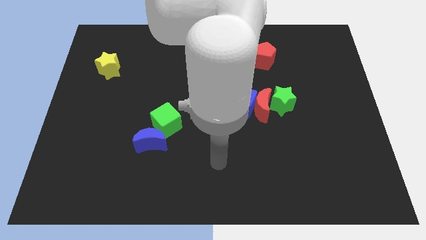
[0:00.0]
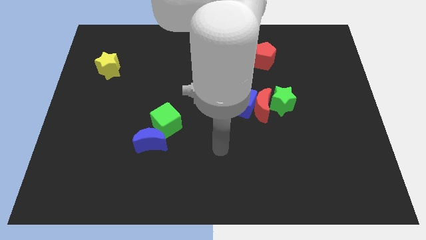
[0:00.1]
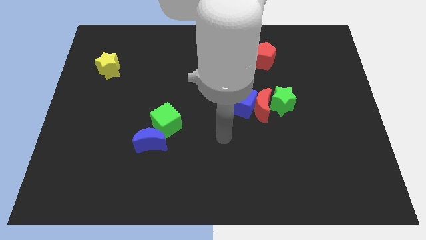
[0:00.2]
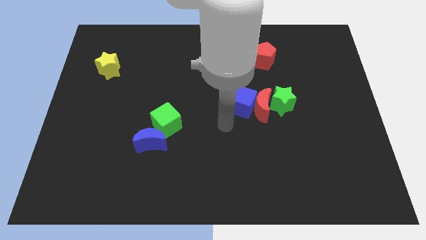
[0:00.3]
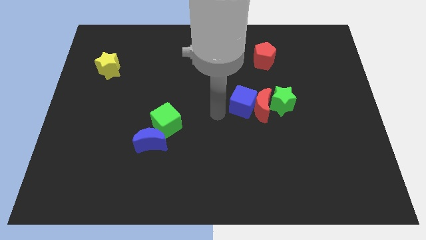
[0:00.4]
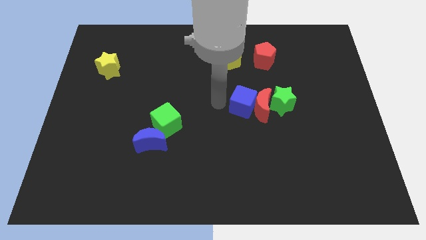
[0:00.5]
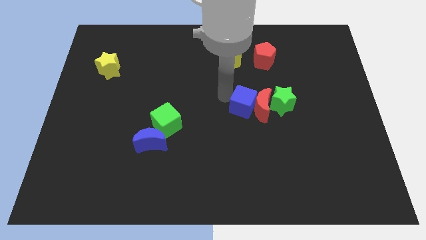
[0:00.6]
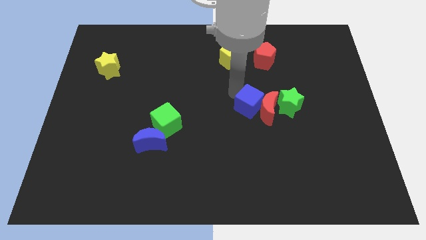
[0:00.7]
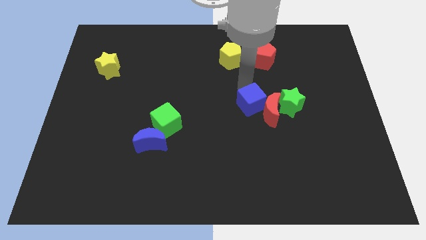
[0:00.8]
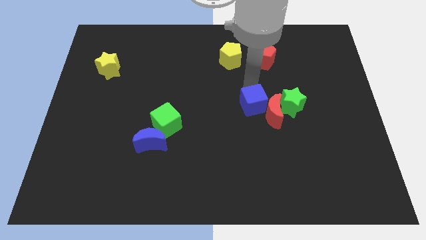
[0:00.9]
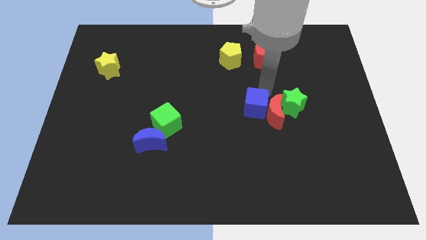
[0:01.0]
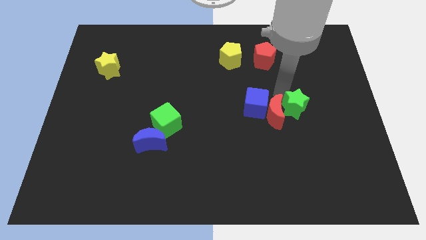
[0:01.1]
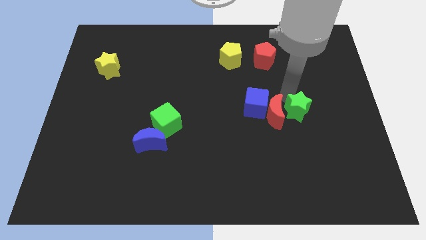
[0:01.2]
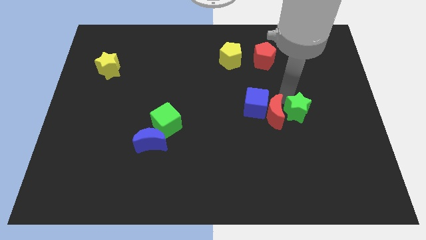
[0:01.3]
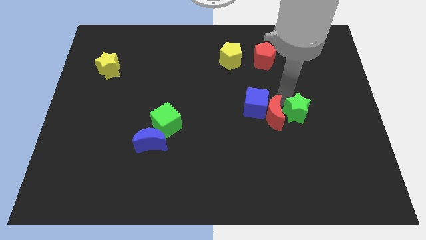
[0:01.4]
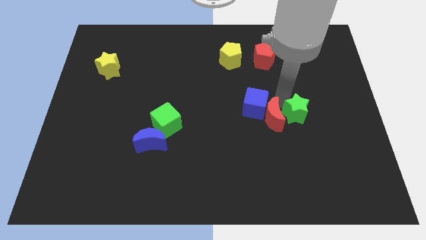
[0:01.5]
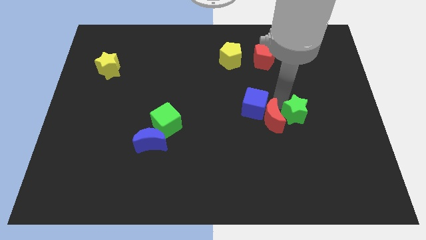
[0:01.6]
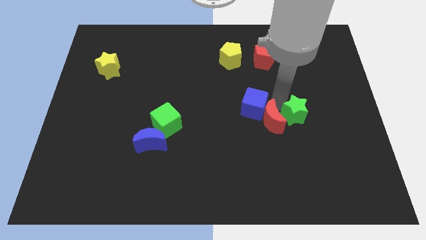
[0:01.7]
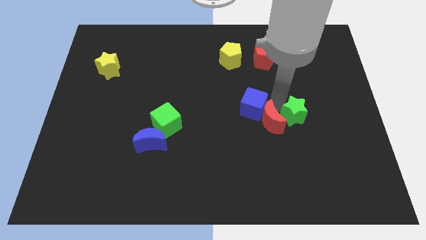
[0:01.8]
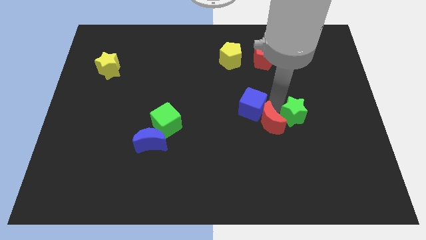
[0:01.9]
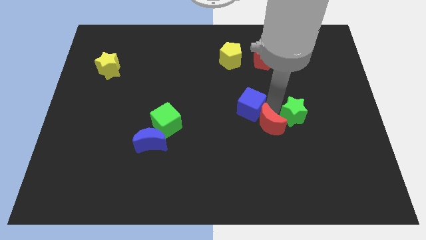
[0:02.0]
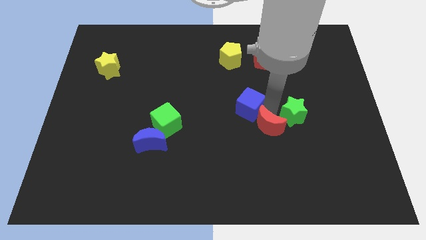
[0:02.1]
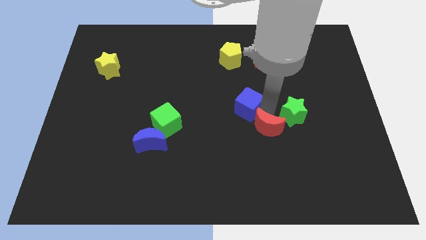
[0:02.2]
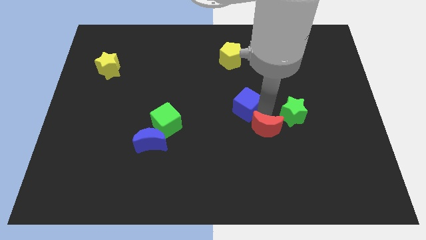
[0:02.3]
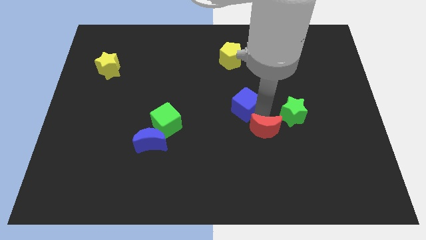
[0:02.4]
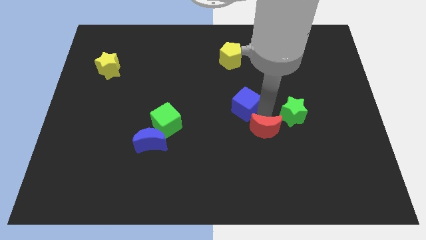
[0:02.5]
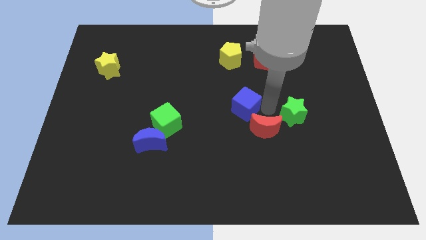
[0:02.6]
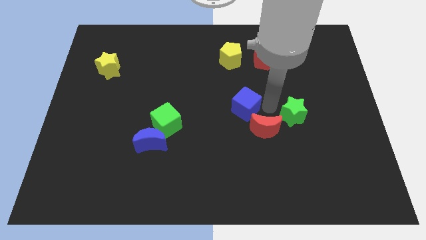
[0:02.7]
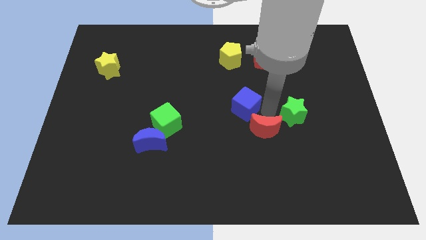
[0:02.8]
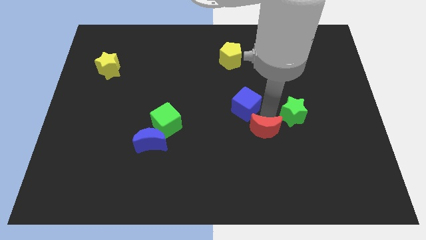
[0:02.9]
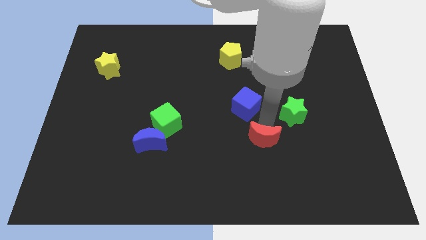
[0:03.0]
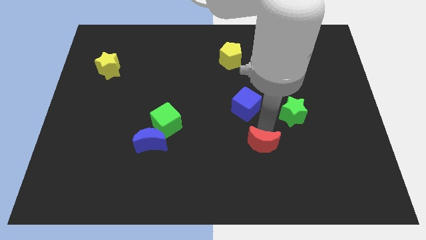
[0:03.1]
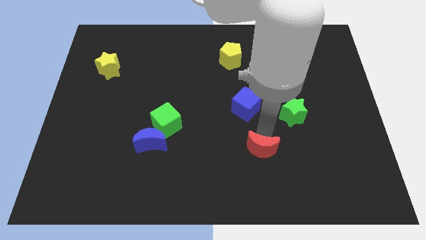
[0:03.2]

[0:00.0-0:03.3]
pull the red moon apart from the blue cube and green star

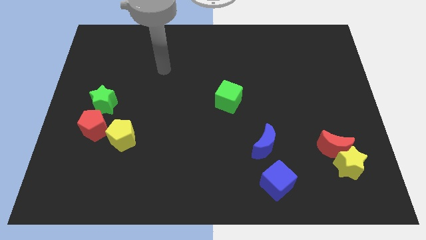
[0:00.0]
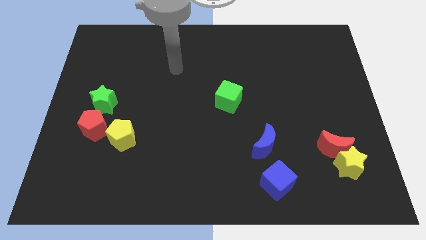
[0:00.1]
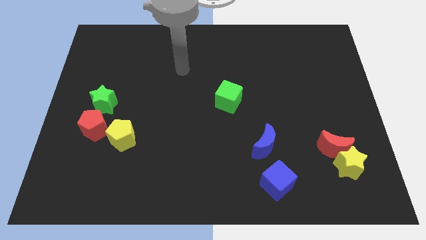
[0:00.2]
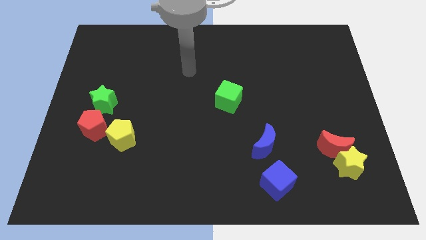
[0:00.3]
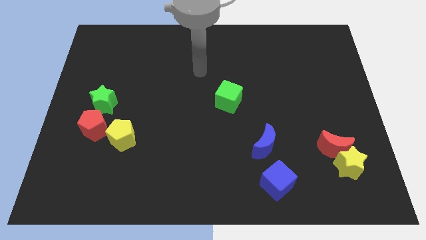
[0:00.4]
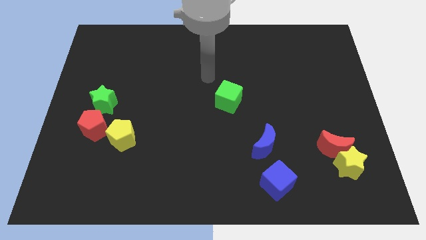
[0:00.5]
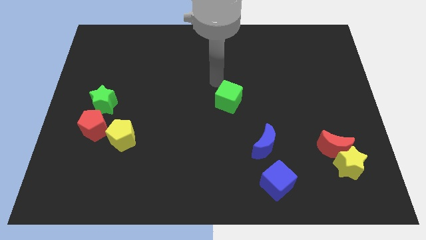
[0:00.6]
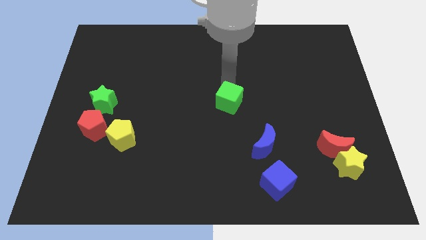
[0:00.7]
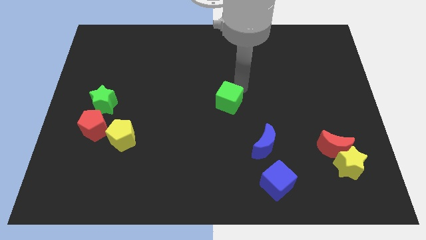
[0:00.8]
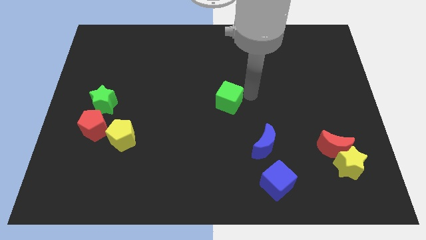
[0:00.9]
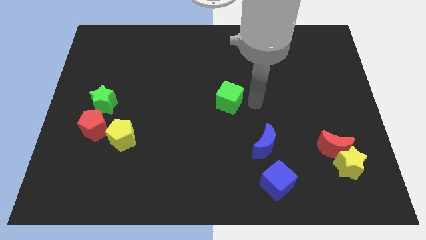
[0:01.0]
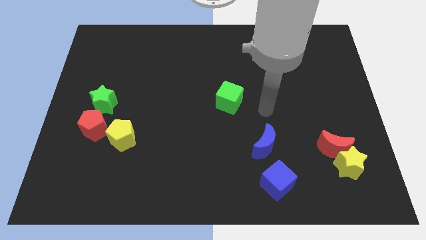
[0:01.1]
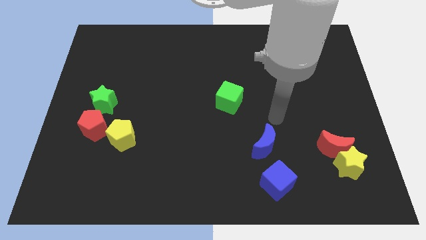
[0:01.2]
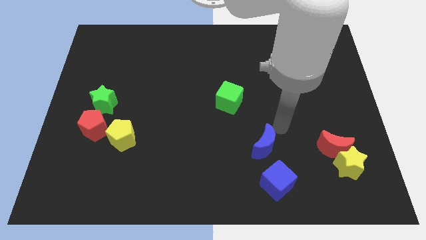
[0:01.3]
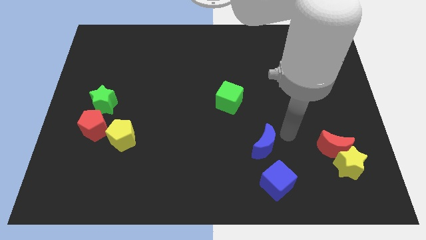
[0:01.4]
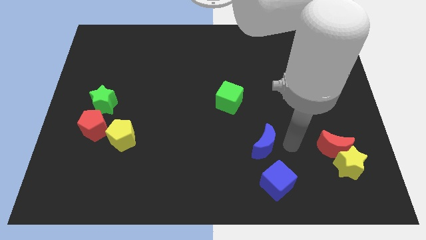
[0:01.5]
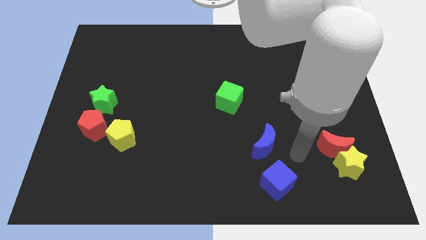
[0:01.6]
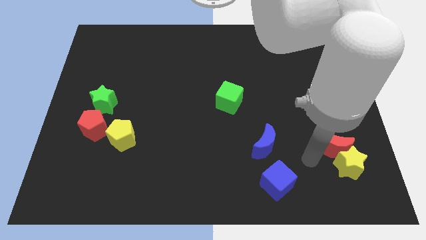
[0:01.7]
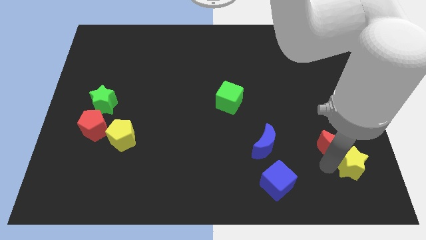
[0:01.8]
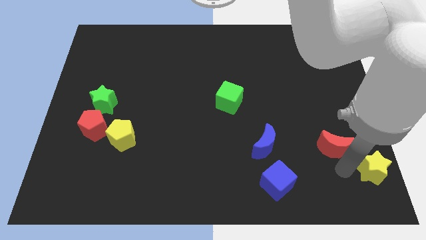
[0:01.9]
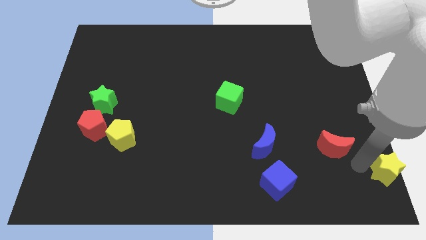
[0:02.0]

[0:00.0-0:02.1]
move the red moon away from the yellow star

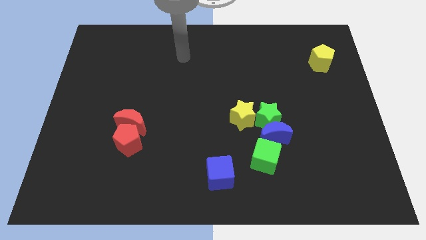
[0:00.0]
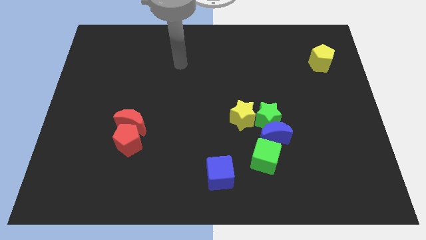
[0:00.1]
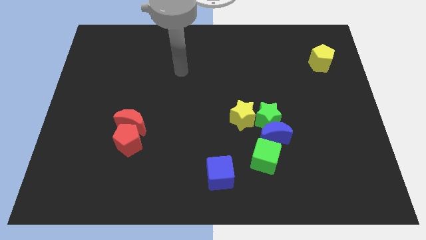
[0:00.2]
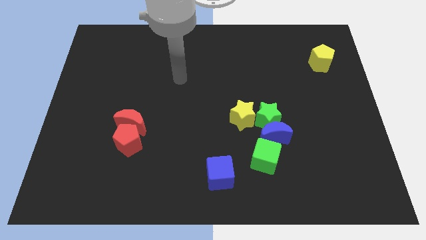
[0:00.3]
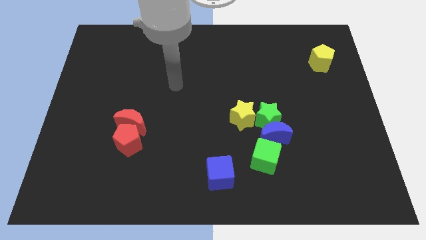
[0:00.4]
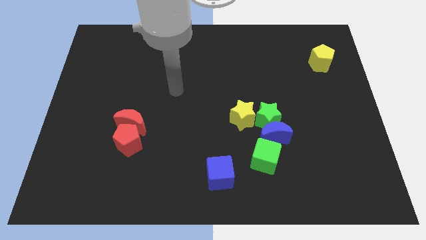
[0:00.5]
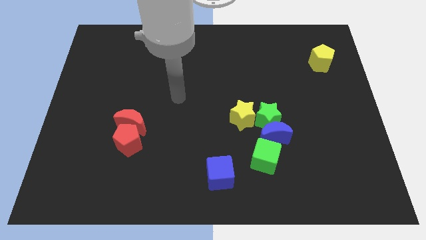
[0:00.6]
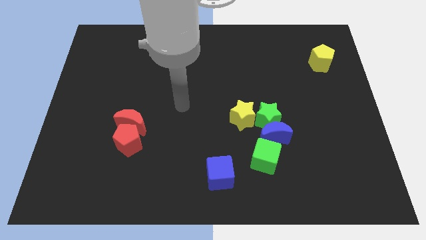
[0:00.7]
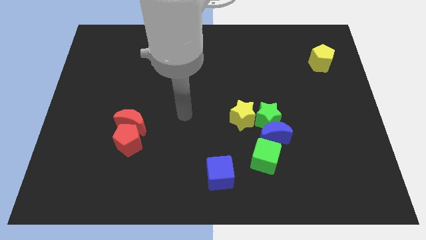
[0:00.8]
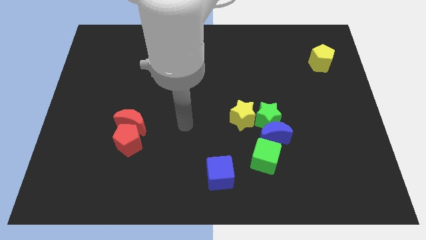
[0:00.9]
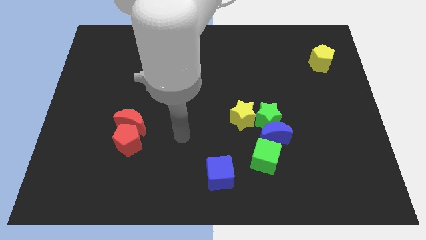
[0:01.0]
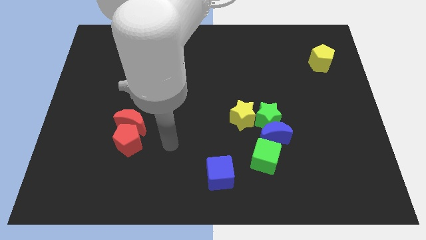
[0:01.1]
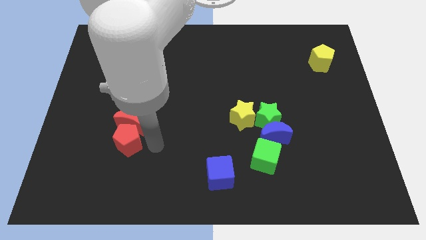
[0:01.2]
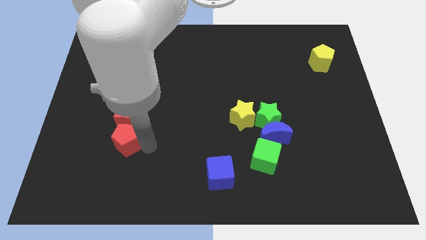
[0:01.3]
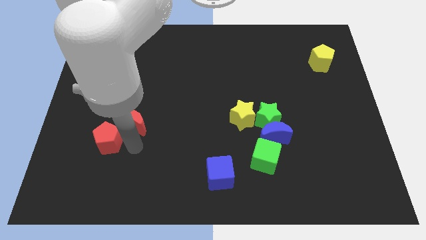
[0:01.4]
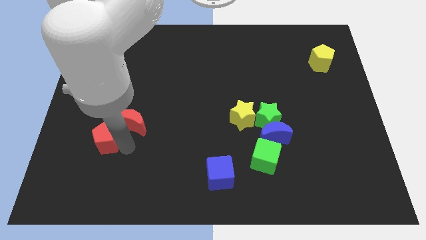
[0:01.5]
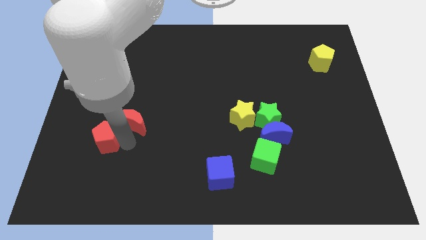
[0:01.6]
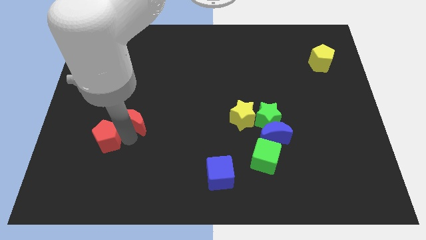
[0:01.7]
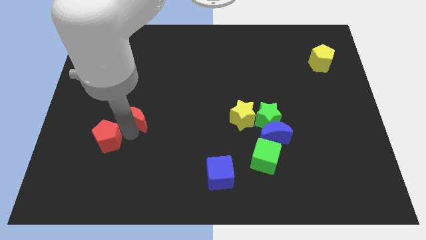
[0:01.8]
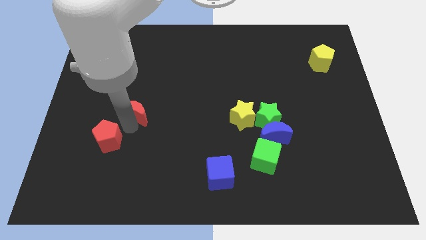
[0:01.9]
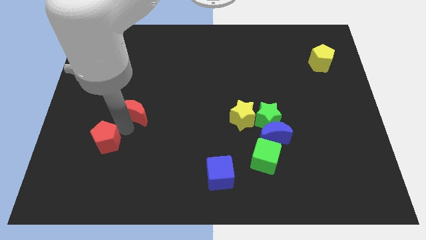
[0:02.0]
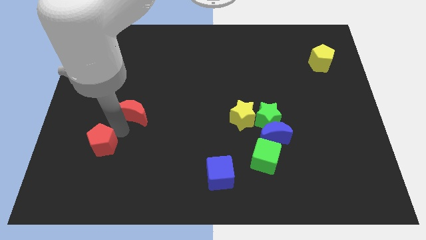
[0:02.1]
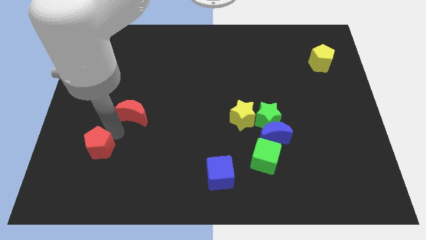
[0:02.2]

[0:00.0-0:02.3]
move the red moon away from the red pentagon

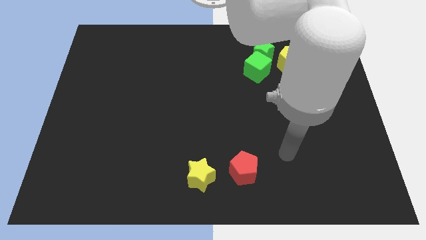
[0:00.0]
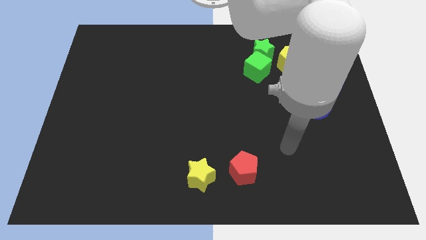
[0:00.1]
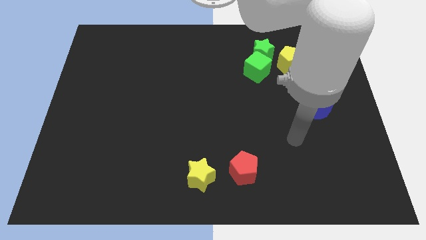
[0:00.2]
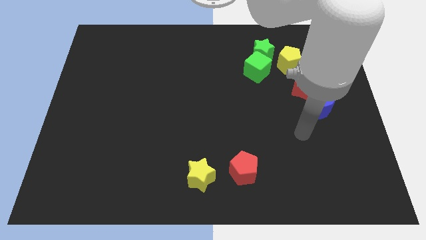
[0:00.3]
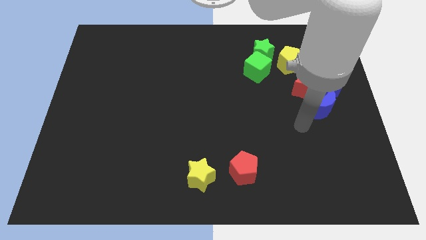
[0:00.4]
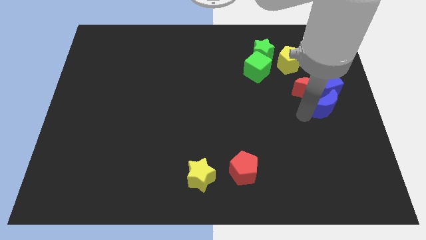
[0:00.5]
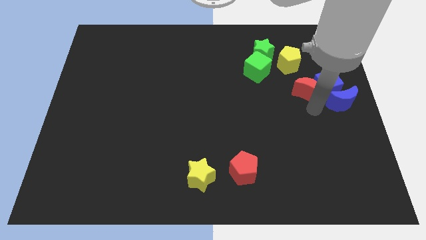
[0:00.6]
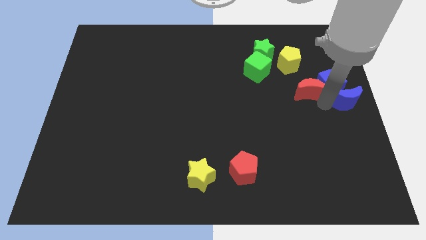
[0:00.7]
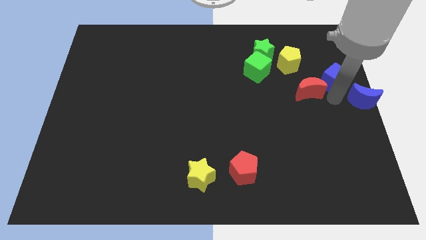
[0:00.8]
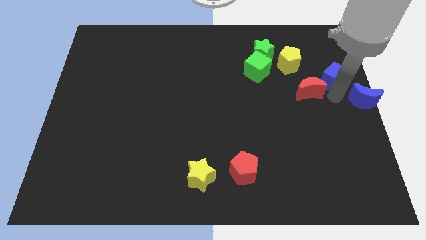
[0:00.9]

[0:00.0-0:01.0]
move the red moon away from the blue cube and blue moon

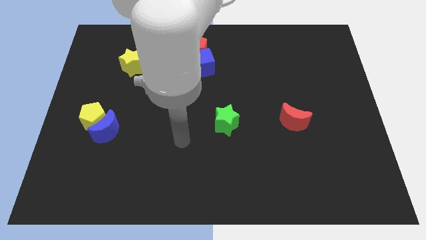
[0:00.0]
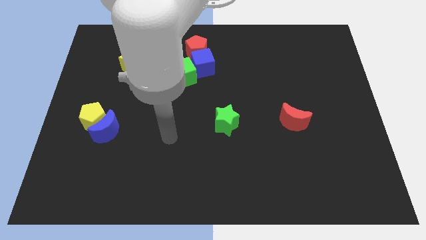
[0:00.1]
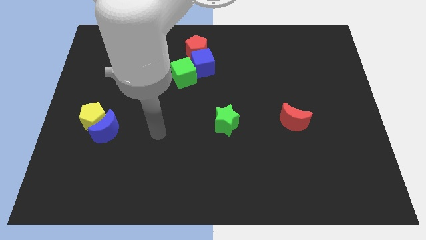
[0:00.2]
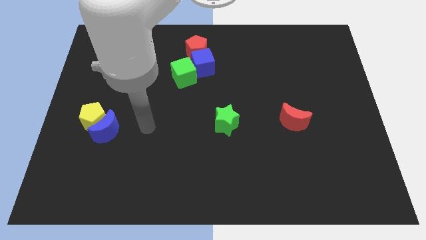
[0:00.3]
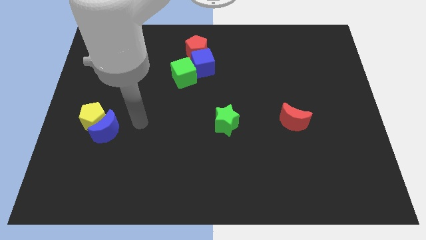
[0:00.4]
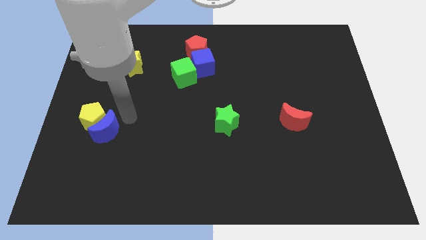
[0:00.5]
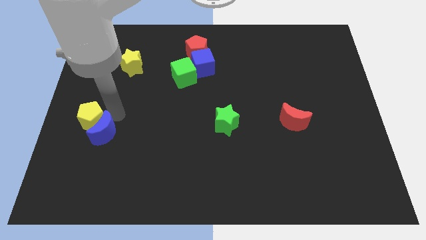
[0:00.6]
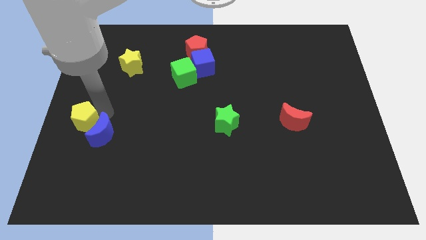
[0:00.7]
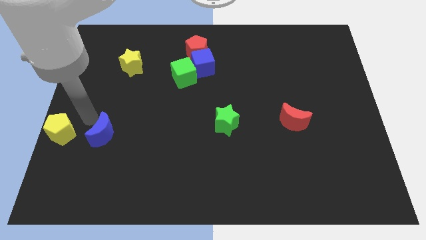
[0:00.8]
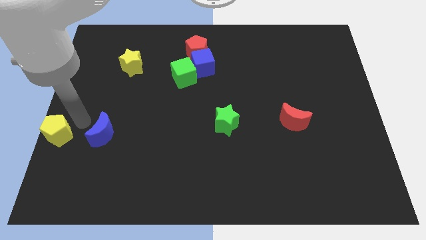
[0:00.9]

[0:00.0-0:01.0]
move the blue moon away from the yellow pentagon
